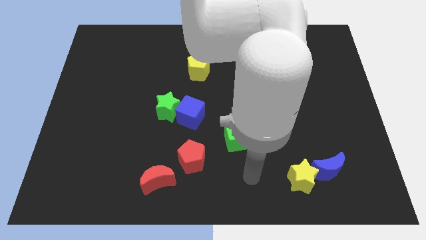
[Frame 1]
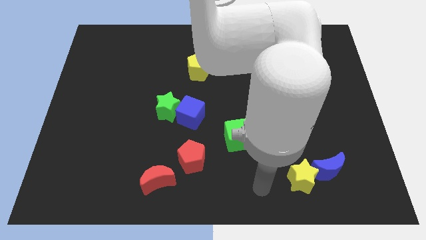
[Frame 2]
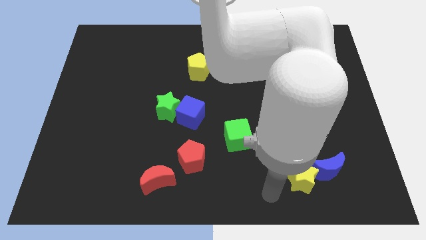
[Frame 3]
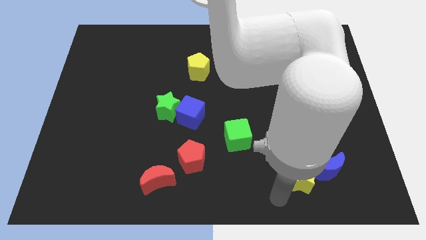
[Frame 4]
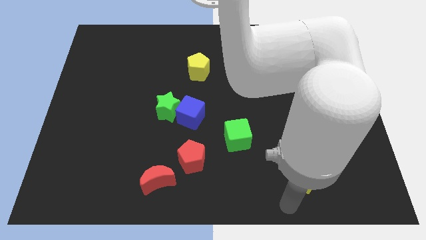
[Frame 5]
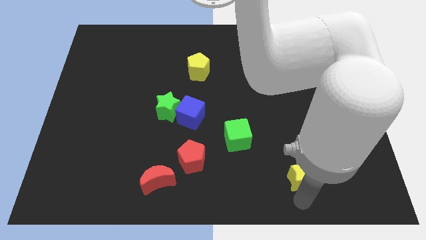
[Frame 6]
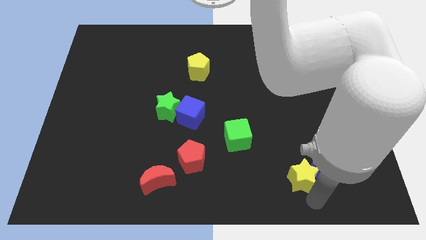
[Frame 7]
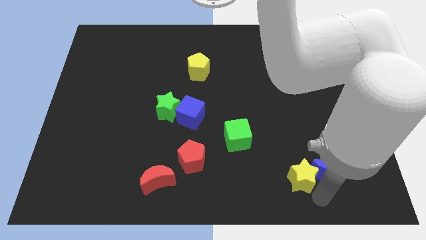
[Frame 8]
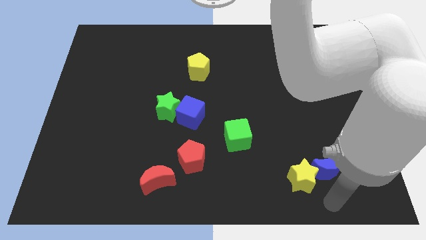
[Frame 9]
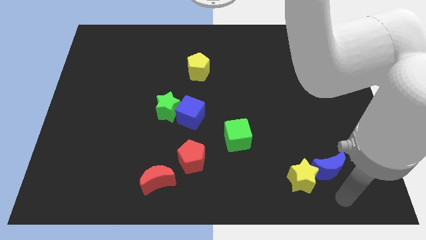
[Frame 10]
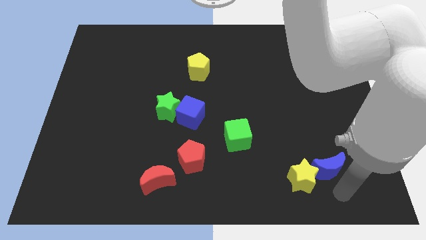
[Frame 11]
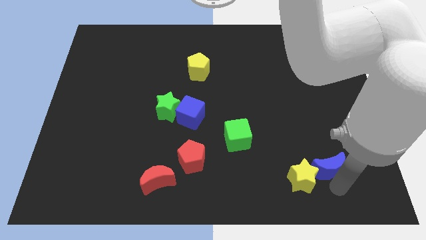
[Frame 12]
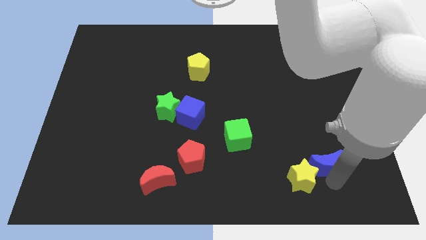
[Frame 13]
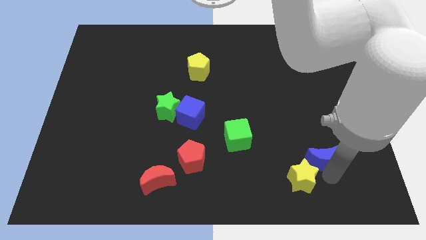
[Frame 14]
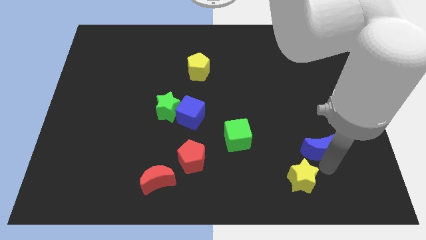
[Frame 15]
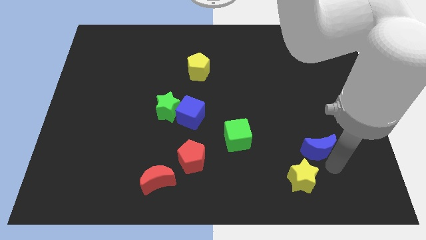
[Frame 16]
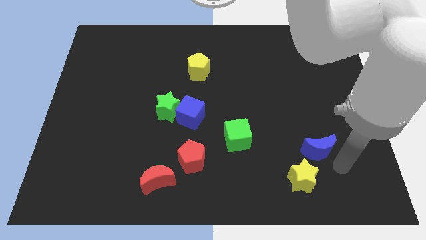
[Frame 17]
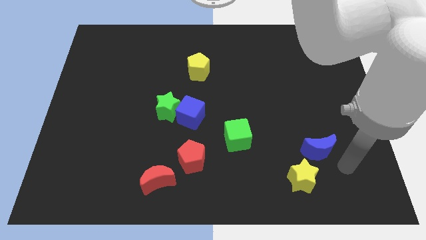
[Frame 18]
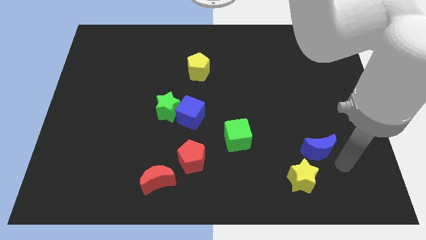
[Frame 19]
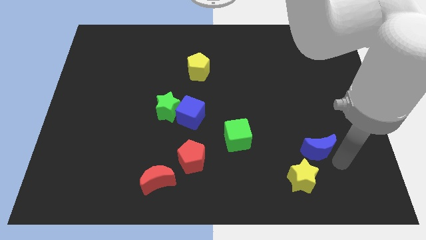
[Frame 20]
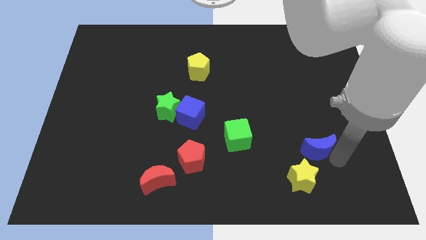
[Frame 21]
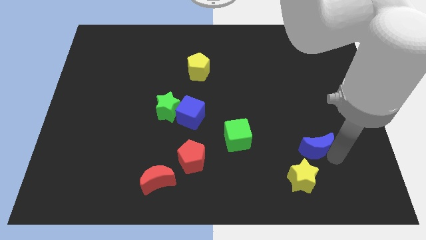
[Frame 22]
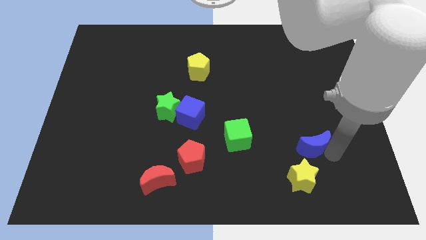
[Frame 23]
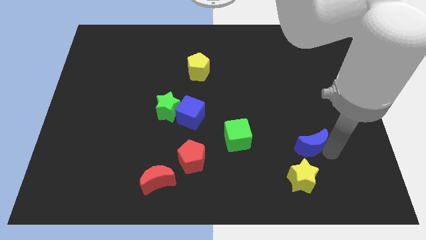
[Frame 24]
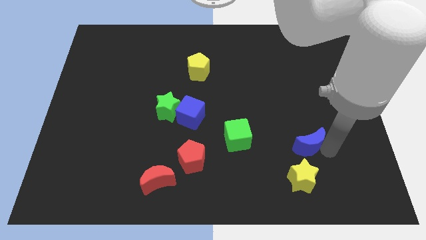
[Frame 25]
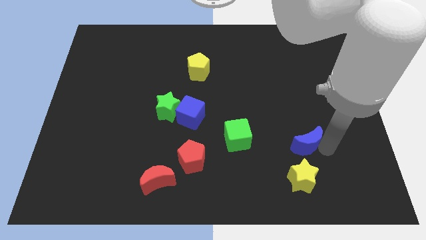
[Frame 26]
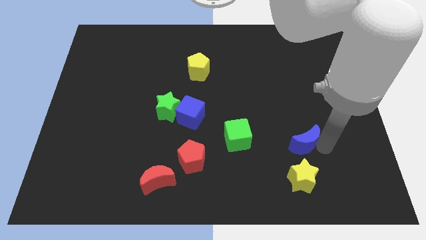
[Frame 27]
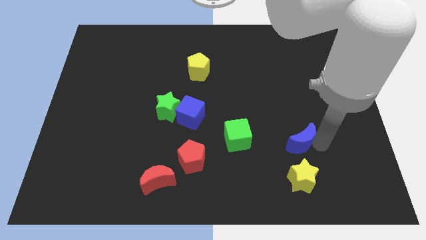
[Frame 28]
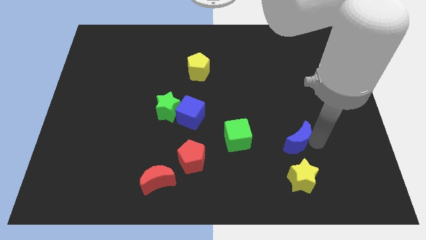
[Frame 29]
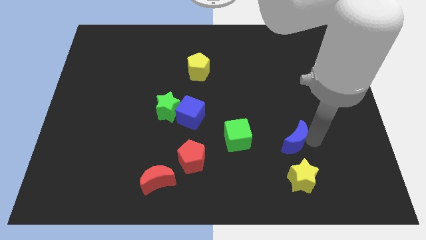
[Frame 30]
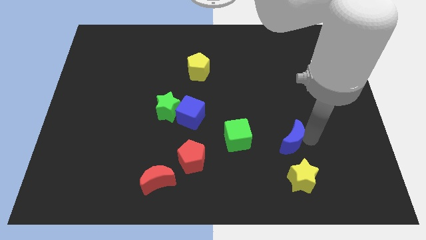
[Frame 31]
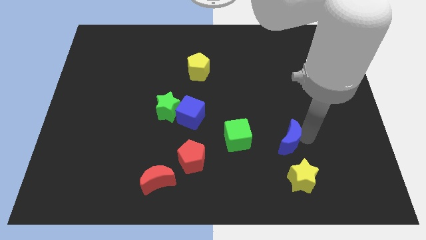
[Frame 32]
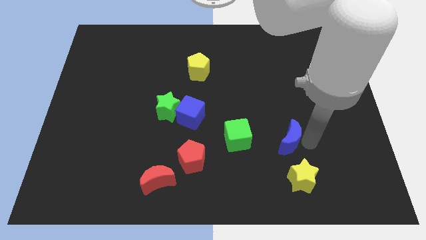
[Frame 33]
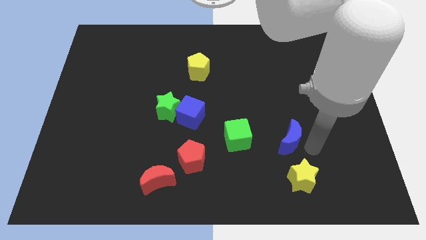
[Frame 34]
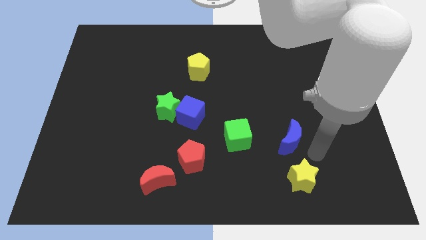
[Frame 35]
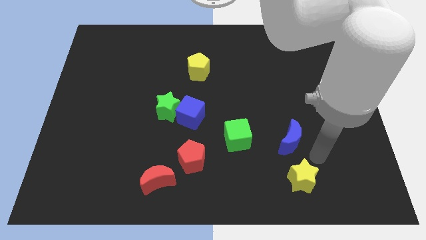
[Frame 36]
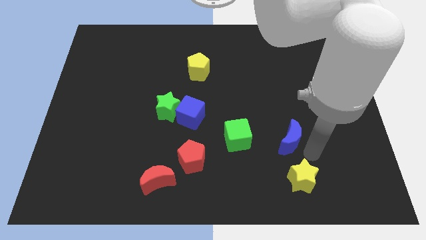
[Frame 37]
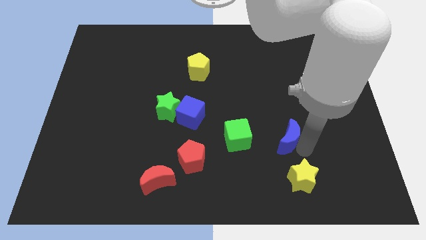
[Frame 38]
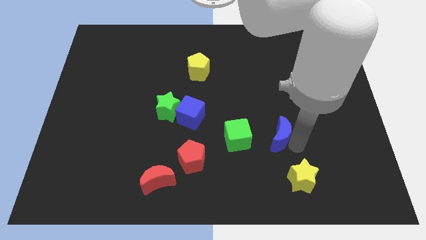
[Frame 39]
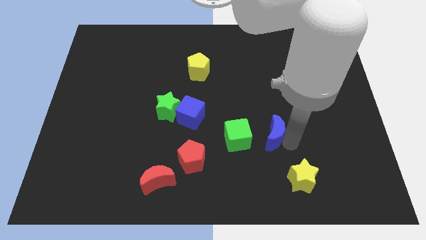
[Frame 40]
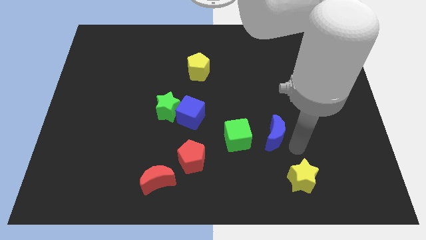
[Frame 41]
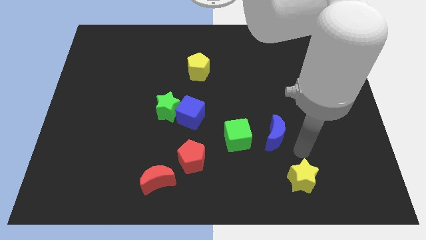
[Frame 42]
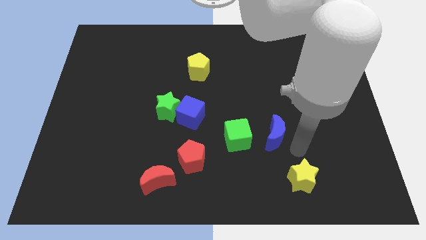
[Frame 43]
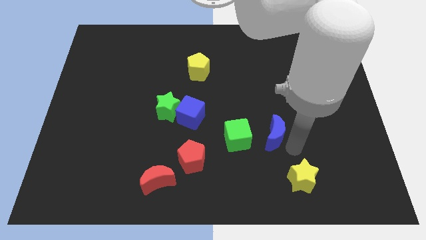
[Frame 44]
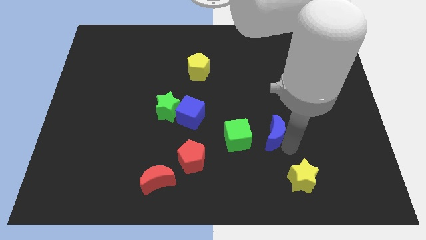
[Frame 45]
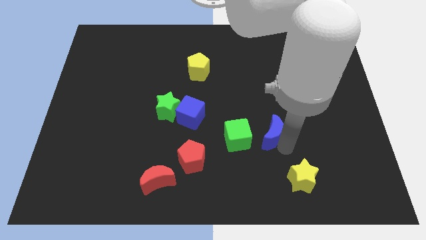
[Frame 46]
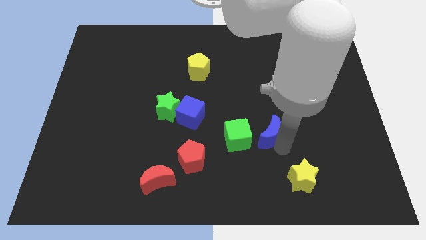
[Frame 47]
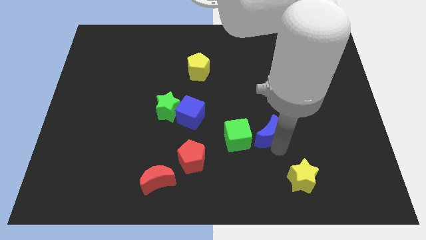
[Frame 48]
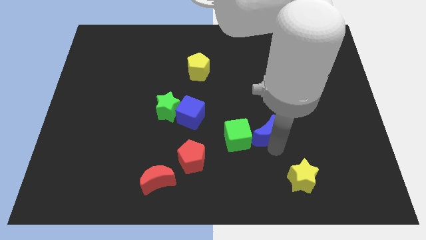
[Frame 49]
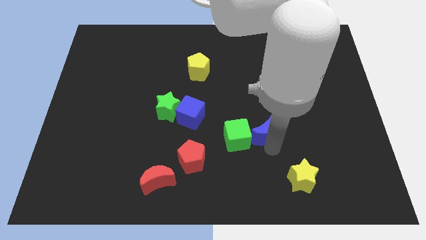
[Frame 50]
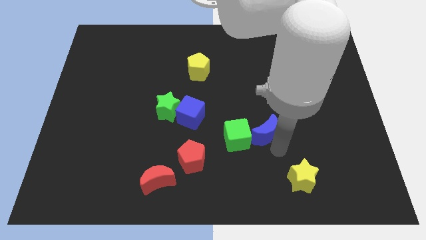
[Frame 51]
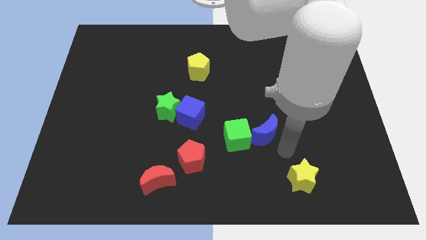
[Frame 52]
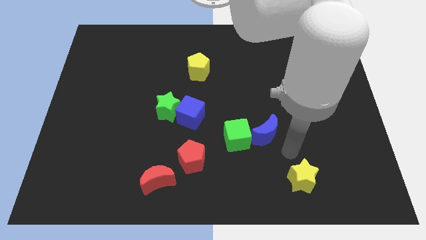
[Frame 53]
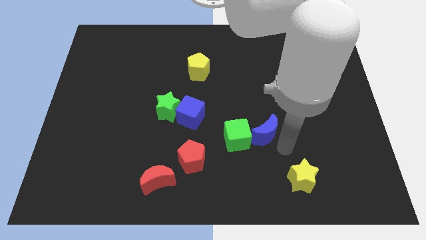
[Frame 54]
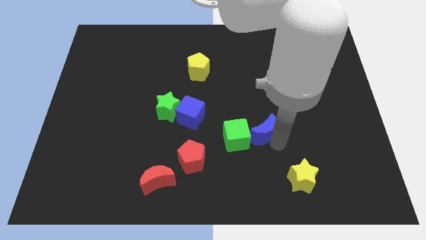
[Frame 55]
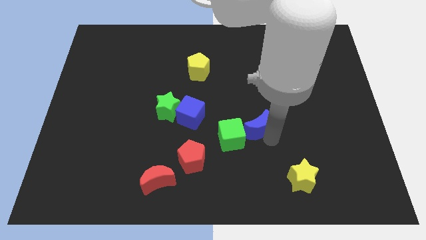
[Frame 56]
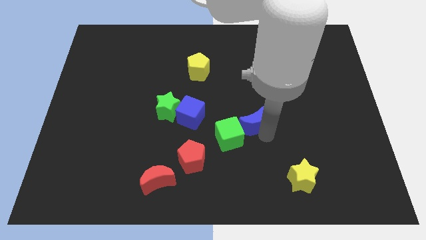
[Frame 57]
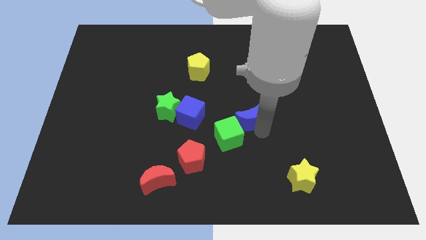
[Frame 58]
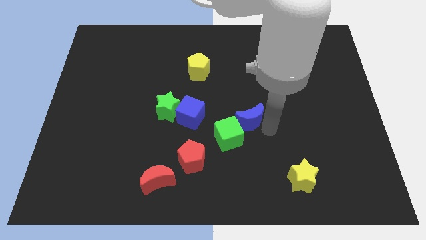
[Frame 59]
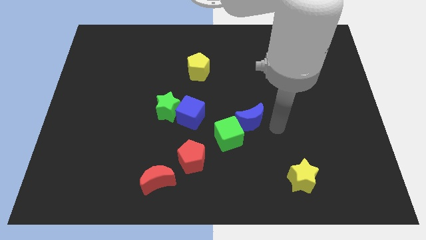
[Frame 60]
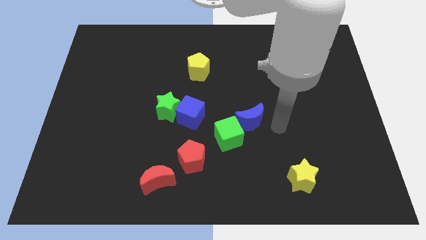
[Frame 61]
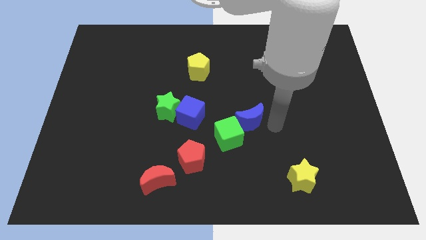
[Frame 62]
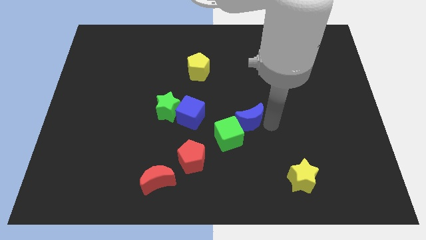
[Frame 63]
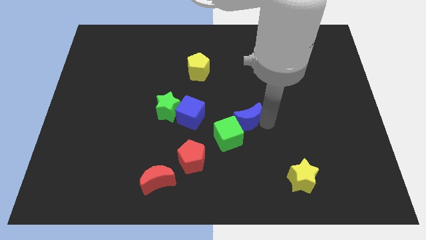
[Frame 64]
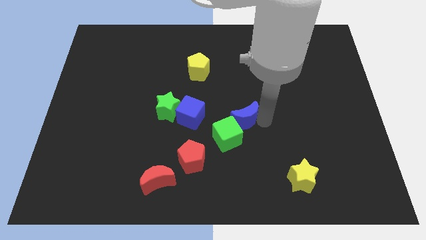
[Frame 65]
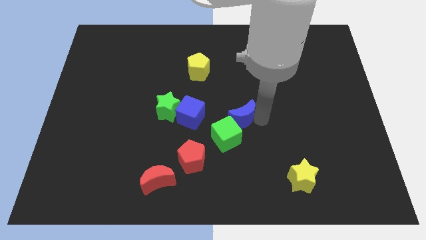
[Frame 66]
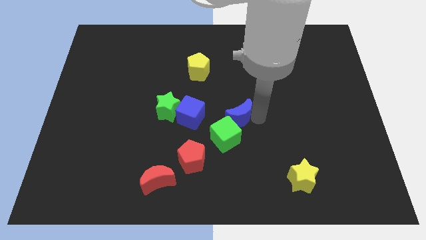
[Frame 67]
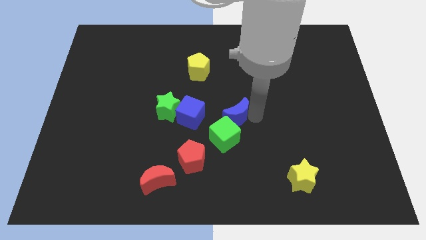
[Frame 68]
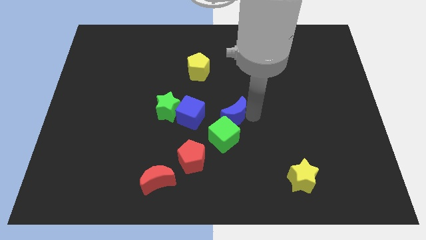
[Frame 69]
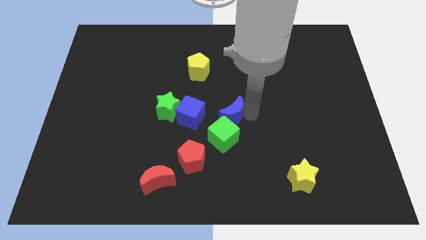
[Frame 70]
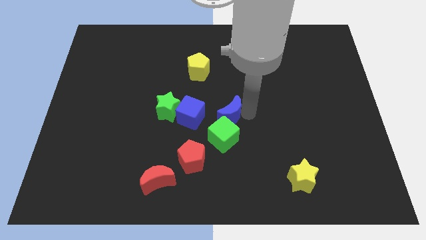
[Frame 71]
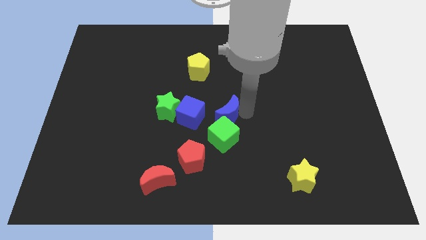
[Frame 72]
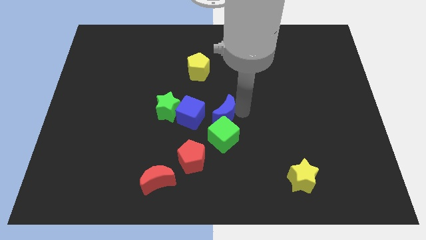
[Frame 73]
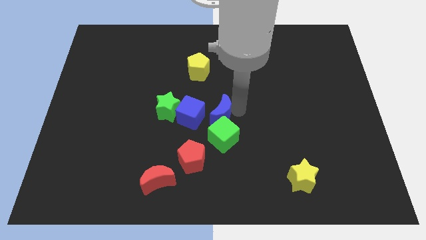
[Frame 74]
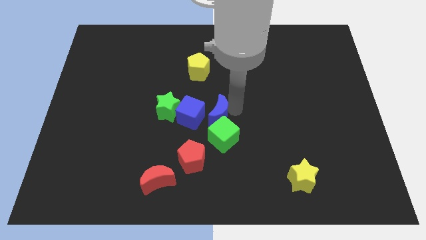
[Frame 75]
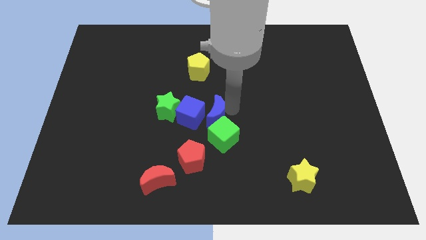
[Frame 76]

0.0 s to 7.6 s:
put the blue moon towards the blue cube
